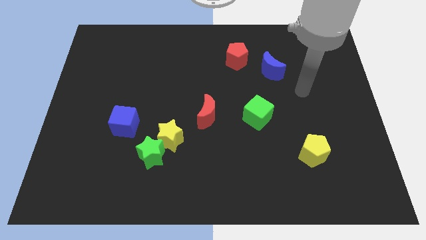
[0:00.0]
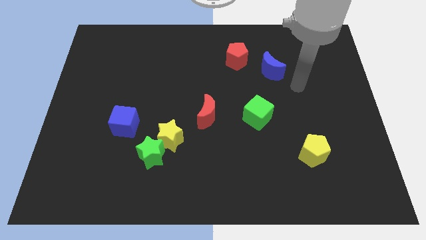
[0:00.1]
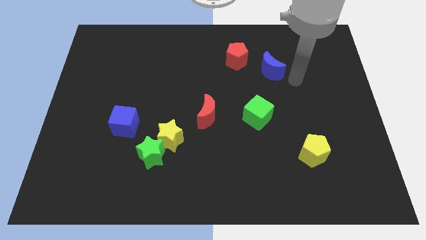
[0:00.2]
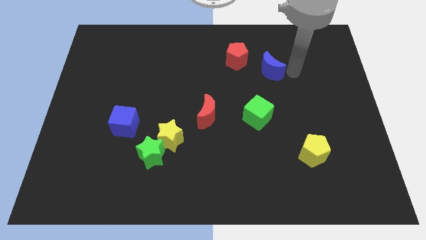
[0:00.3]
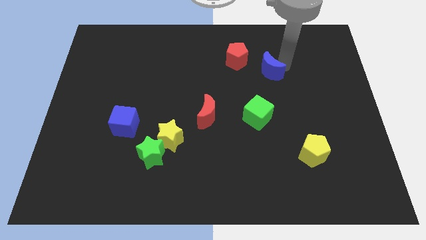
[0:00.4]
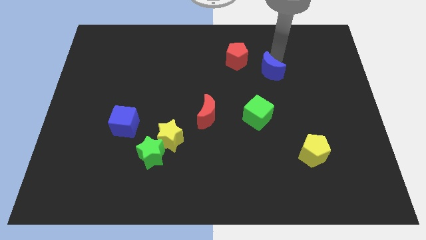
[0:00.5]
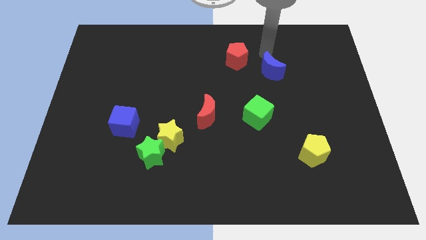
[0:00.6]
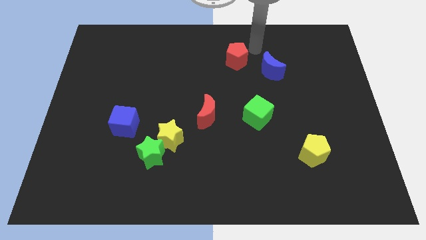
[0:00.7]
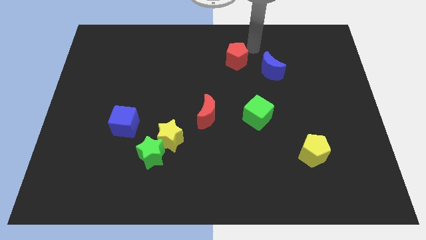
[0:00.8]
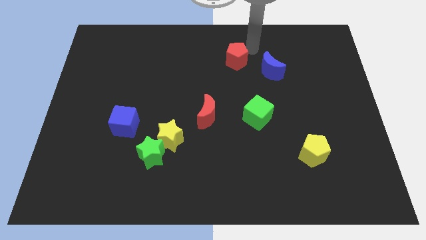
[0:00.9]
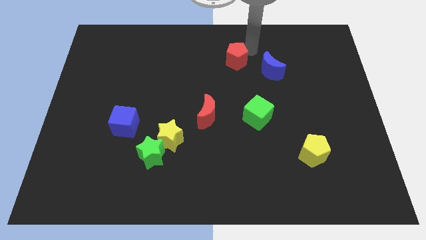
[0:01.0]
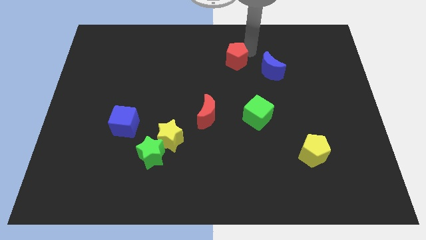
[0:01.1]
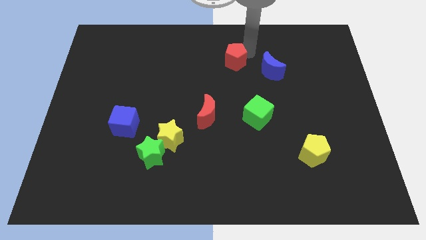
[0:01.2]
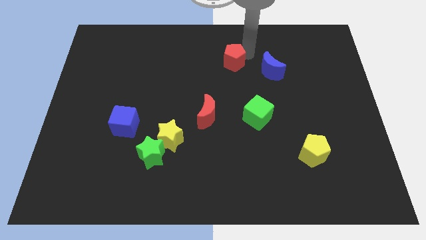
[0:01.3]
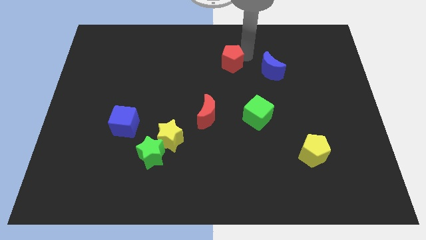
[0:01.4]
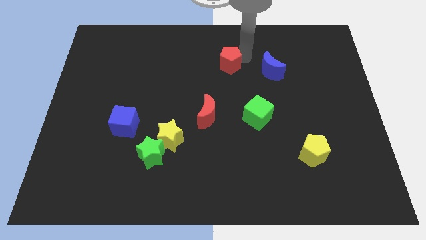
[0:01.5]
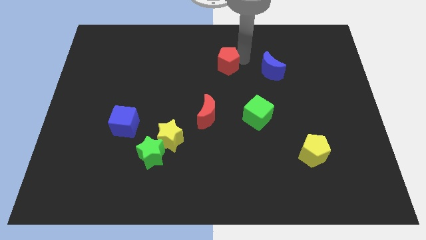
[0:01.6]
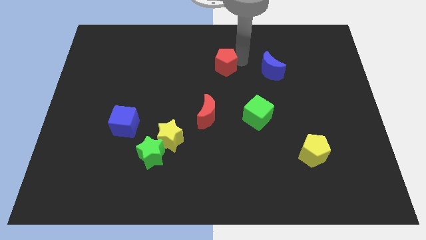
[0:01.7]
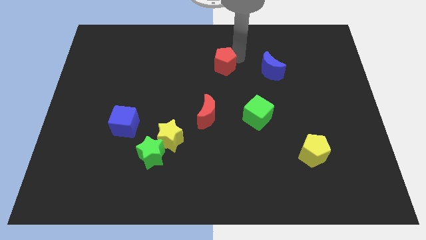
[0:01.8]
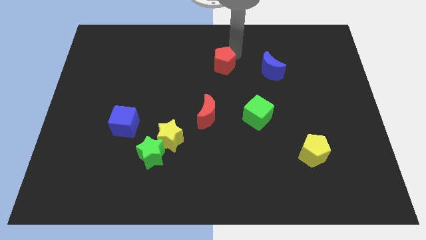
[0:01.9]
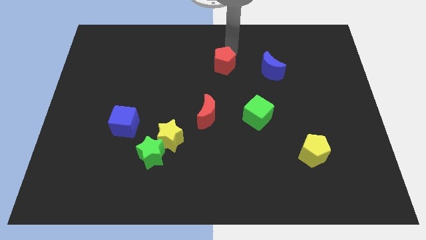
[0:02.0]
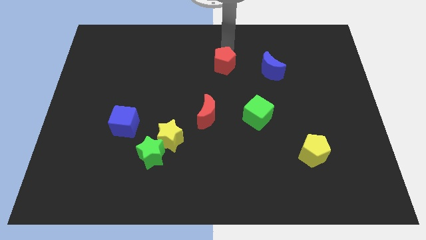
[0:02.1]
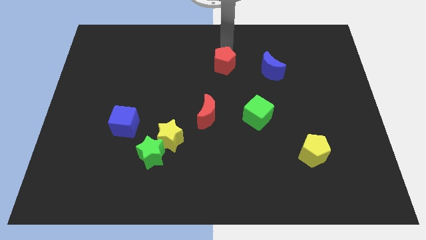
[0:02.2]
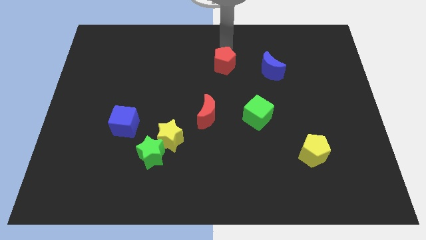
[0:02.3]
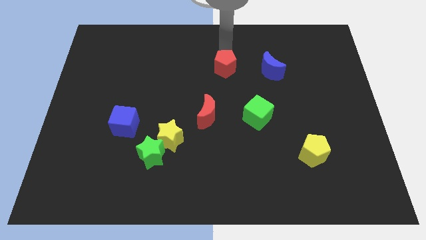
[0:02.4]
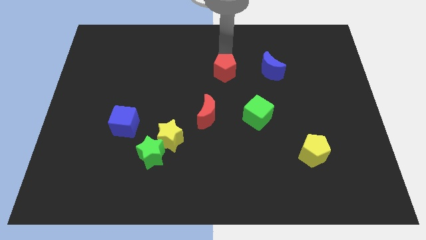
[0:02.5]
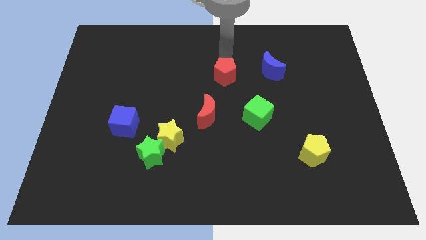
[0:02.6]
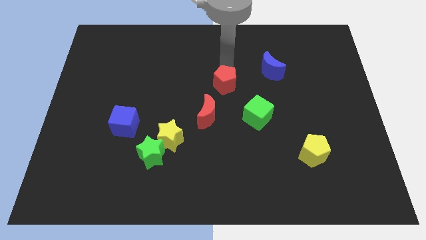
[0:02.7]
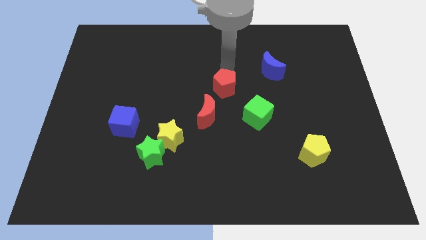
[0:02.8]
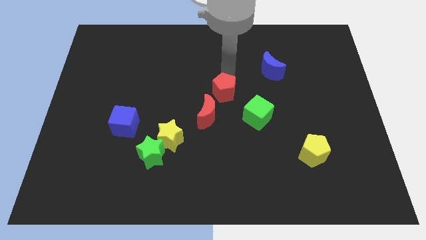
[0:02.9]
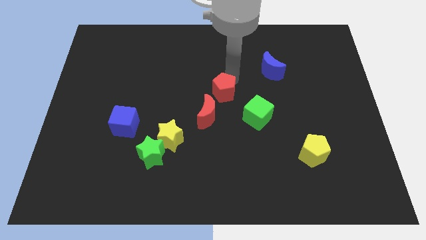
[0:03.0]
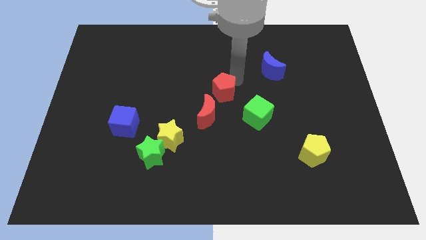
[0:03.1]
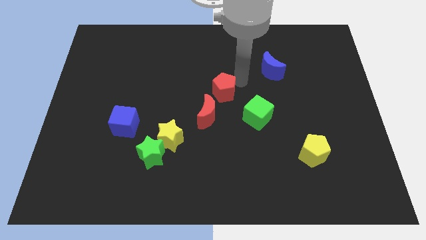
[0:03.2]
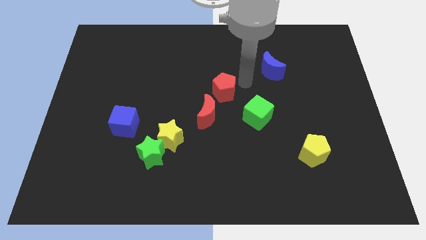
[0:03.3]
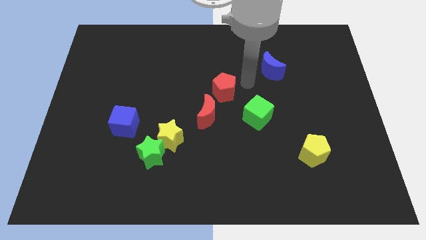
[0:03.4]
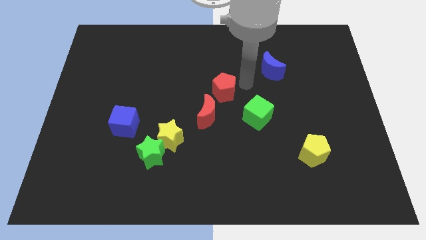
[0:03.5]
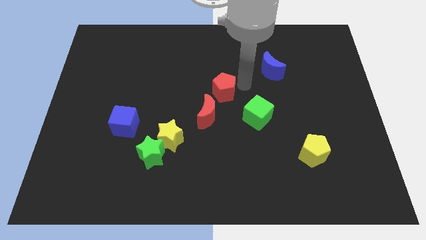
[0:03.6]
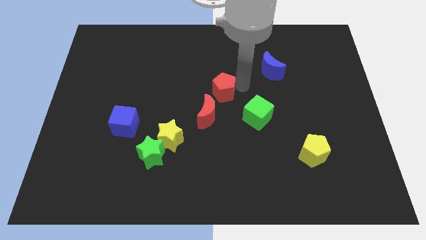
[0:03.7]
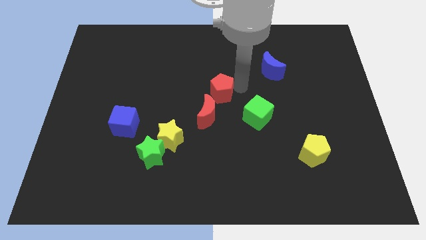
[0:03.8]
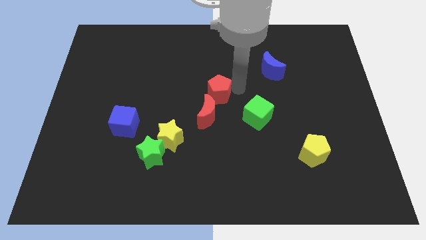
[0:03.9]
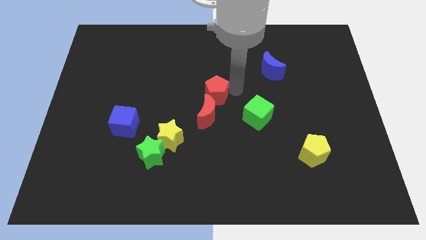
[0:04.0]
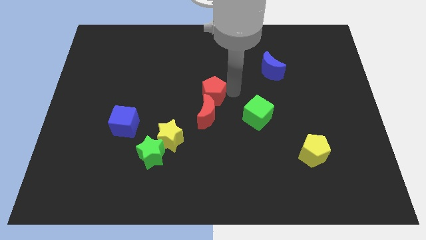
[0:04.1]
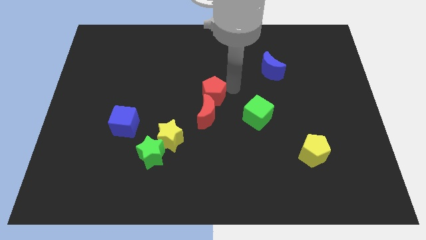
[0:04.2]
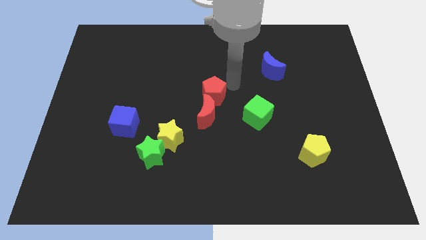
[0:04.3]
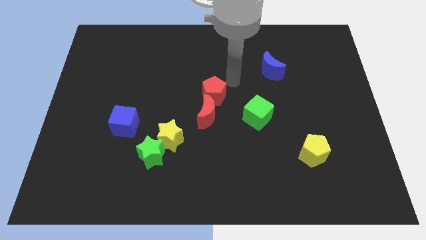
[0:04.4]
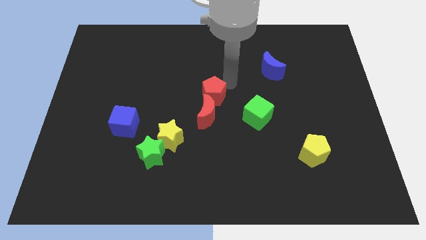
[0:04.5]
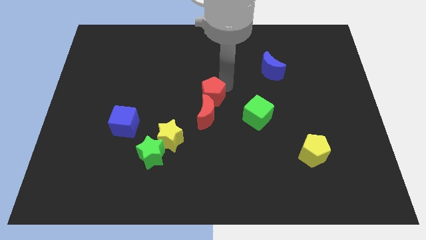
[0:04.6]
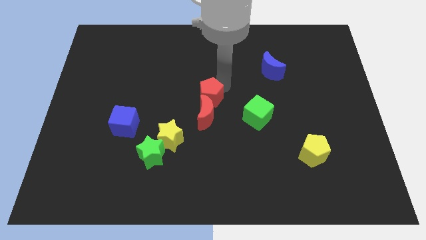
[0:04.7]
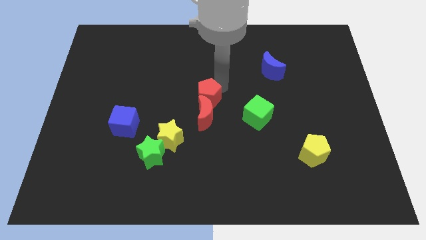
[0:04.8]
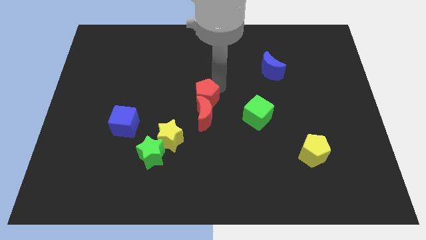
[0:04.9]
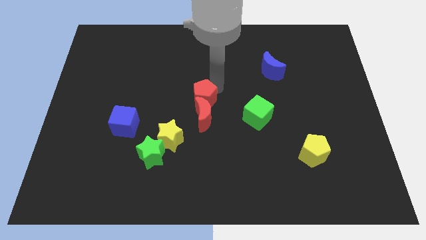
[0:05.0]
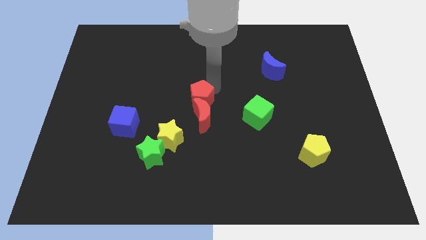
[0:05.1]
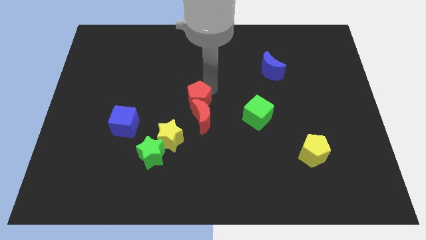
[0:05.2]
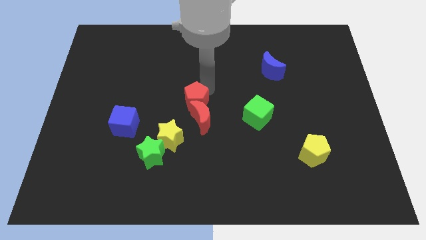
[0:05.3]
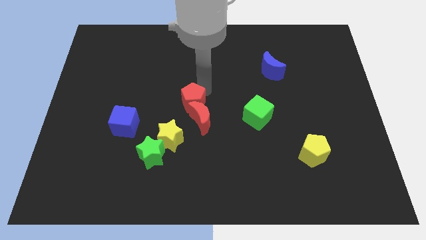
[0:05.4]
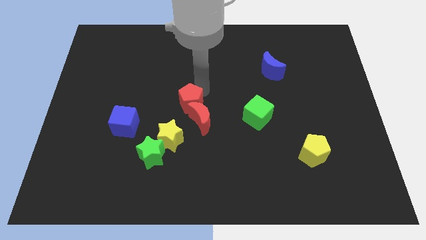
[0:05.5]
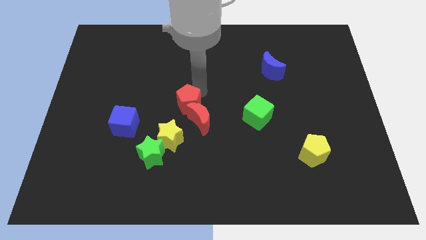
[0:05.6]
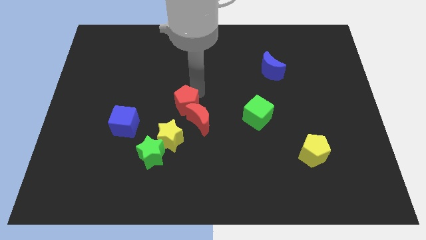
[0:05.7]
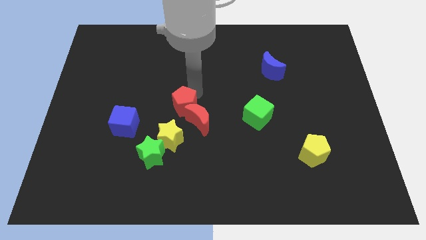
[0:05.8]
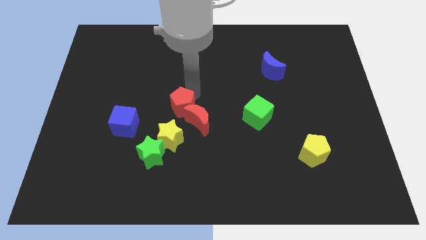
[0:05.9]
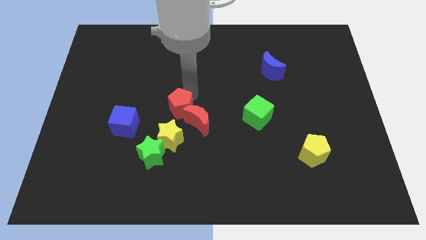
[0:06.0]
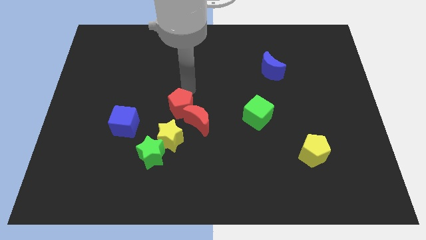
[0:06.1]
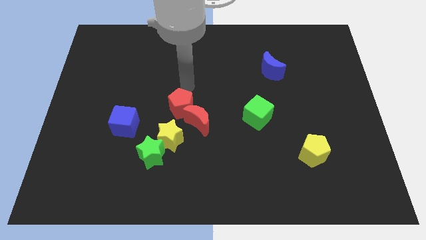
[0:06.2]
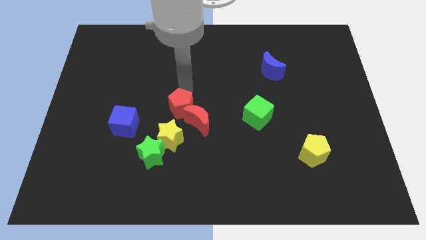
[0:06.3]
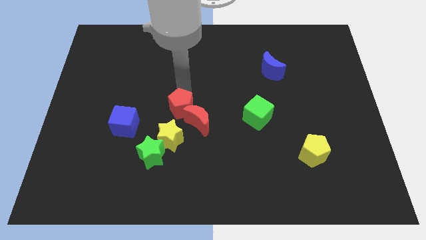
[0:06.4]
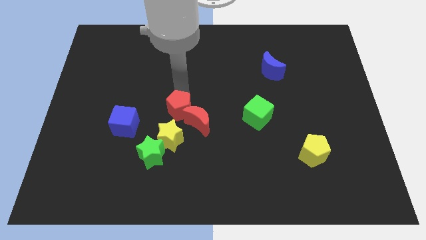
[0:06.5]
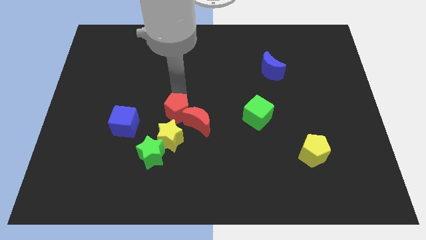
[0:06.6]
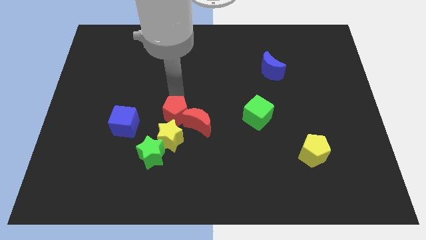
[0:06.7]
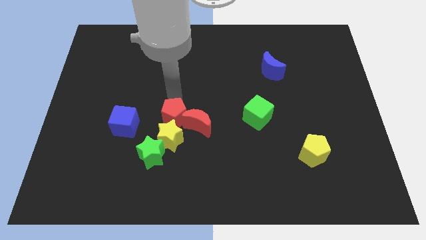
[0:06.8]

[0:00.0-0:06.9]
push the red pentagon to the yellow star
